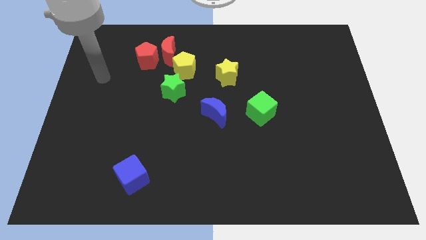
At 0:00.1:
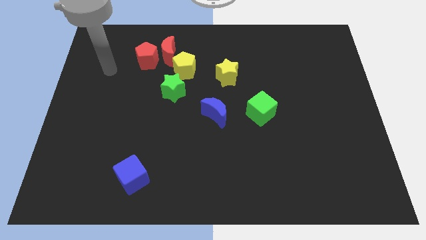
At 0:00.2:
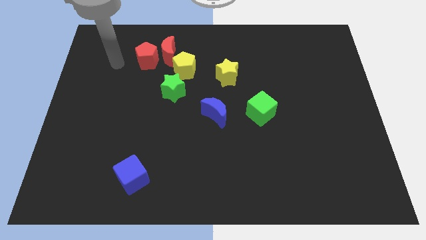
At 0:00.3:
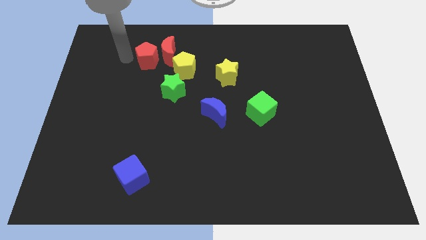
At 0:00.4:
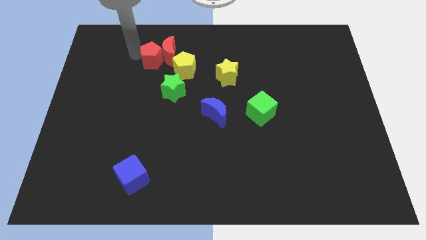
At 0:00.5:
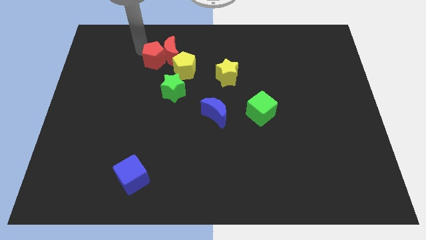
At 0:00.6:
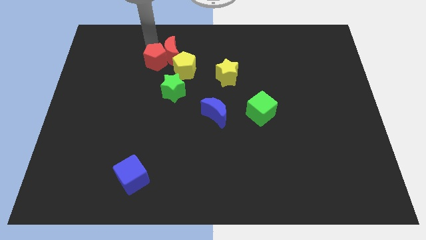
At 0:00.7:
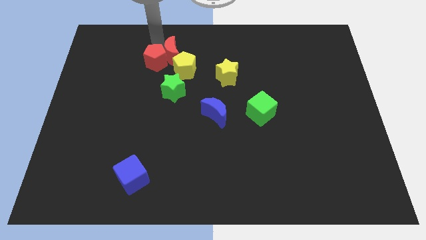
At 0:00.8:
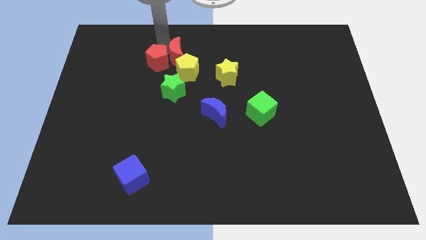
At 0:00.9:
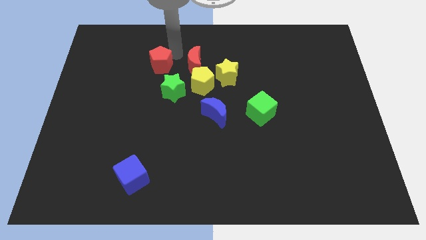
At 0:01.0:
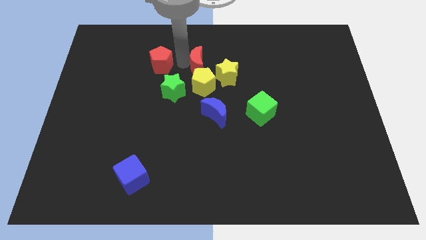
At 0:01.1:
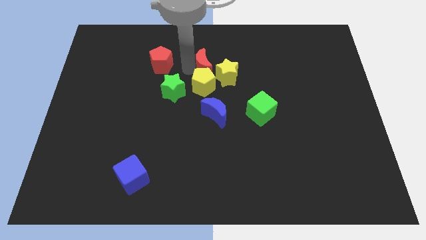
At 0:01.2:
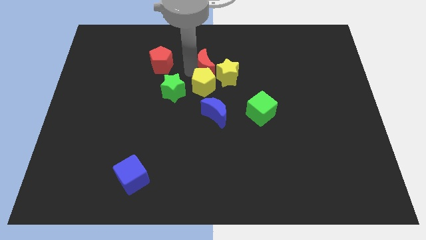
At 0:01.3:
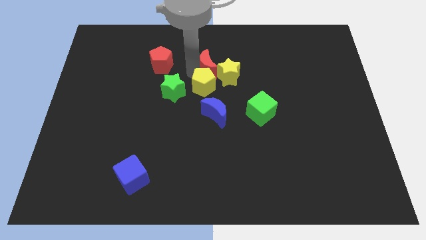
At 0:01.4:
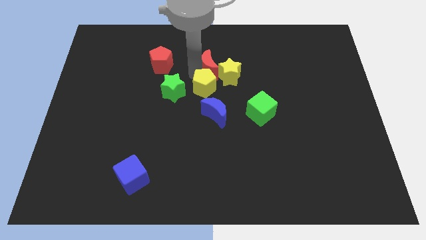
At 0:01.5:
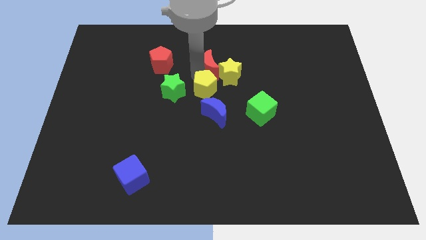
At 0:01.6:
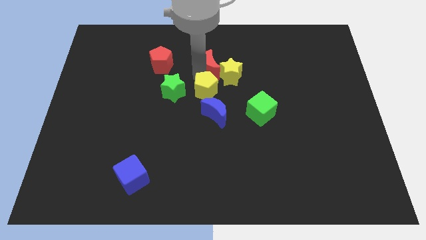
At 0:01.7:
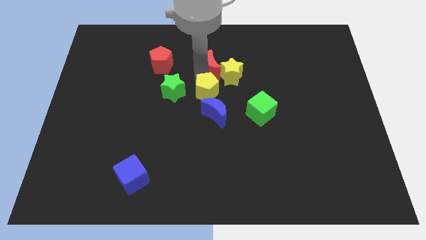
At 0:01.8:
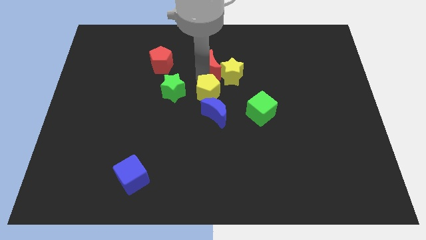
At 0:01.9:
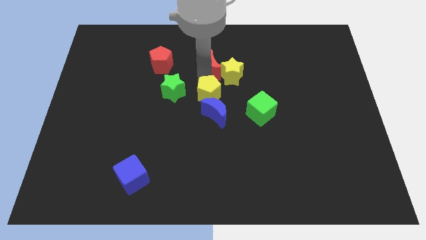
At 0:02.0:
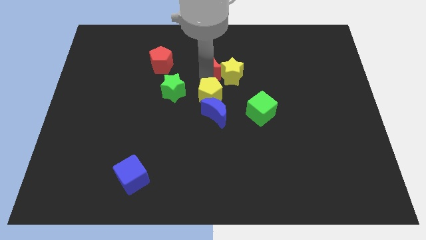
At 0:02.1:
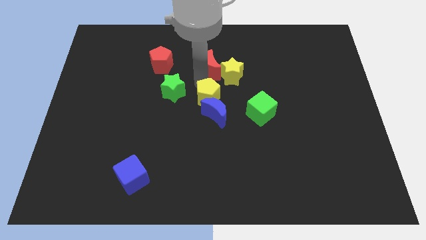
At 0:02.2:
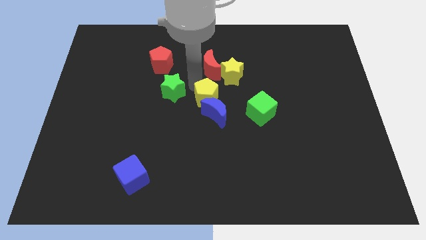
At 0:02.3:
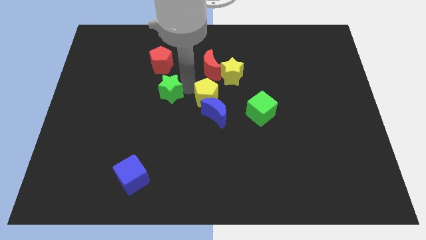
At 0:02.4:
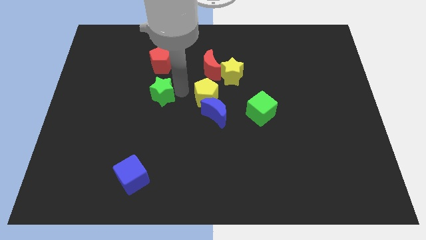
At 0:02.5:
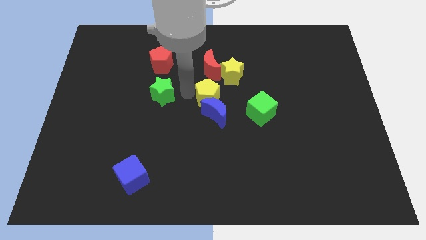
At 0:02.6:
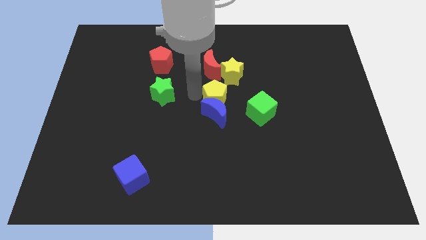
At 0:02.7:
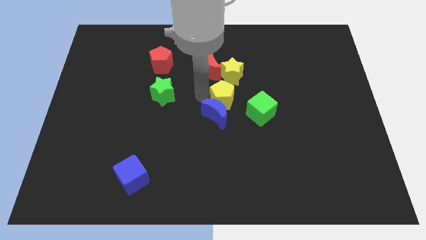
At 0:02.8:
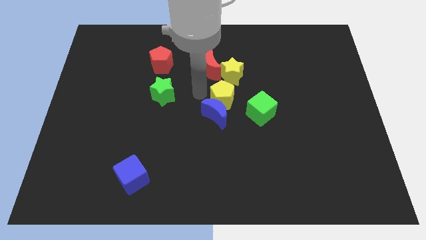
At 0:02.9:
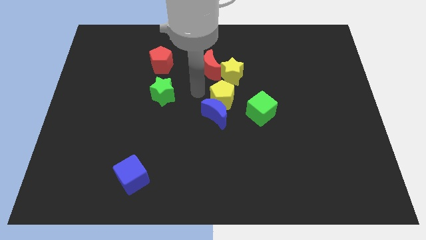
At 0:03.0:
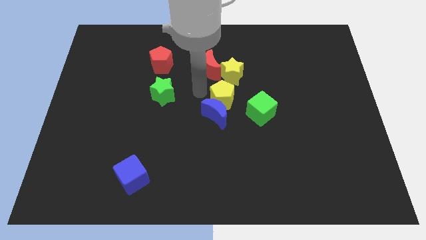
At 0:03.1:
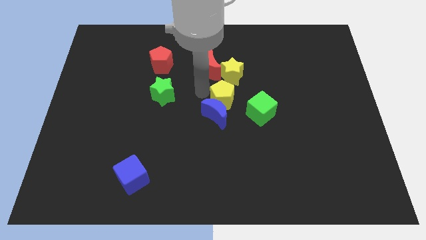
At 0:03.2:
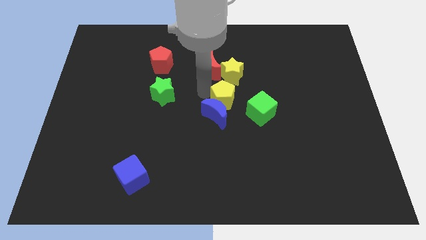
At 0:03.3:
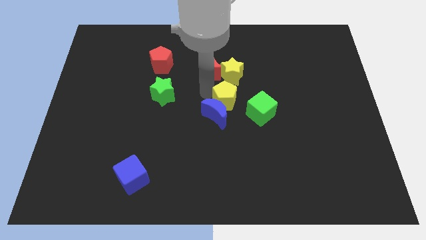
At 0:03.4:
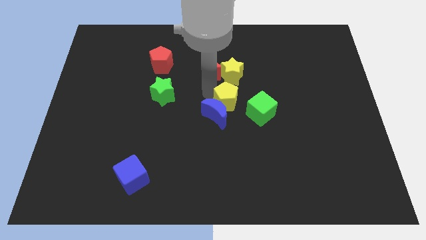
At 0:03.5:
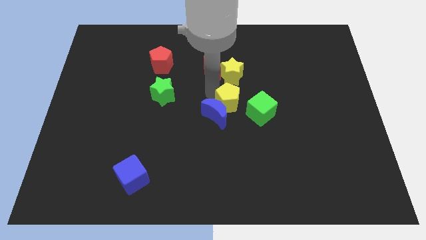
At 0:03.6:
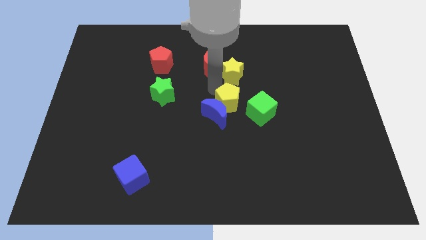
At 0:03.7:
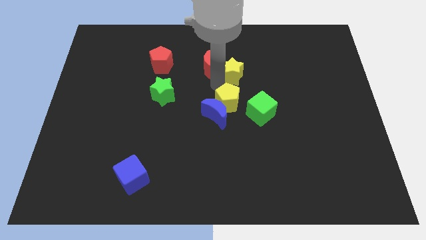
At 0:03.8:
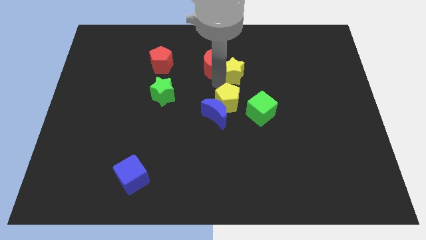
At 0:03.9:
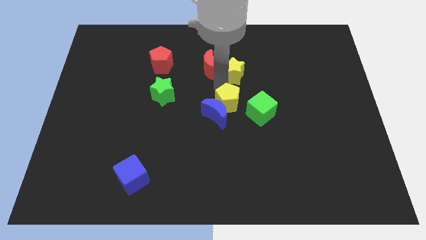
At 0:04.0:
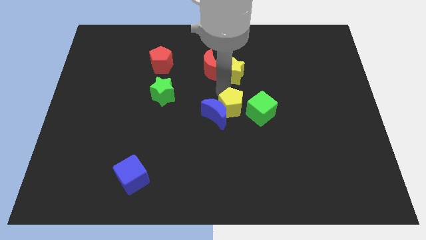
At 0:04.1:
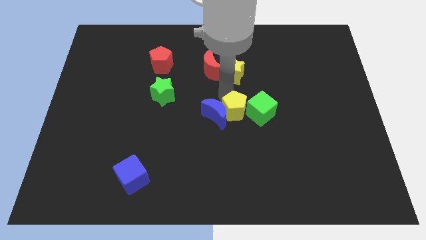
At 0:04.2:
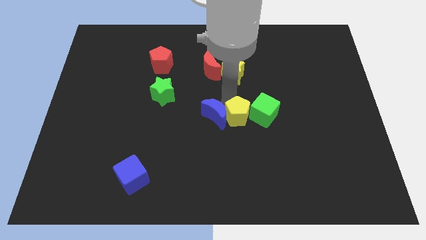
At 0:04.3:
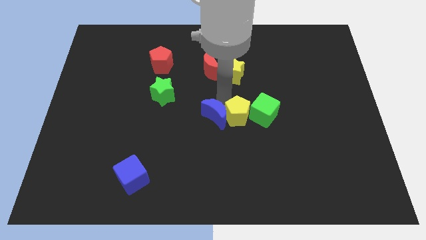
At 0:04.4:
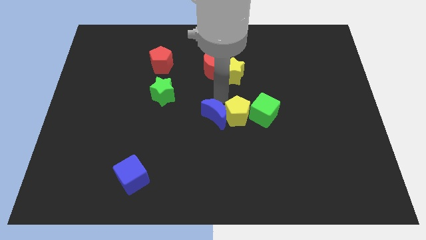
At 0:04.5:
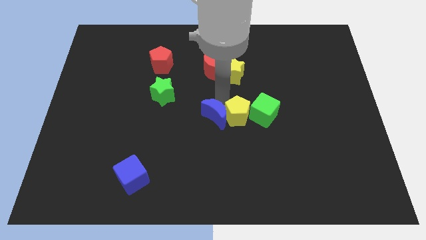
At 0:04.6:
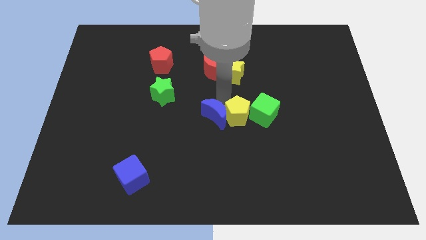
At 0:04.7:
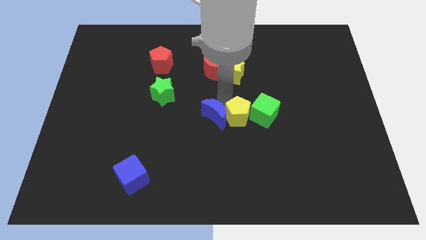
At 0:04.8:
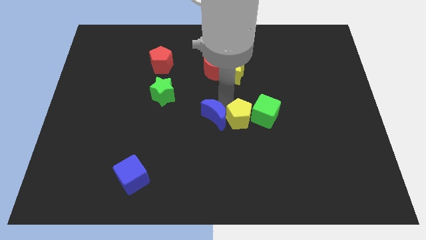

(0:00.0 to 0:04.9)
move the yellow pentagon diagonally down and to the right

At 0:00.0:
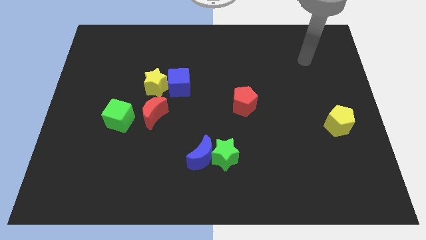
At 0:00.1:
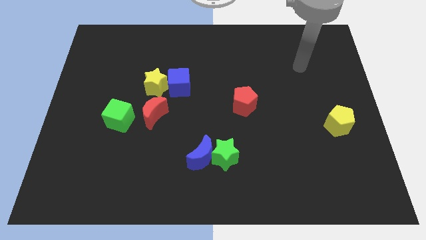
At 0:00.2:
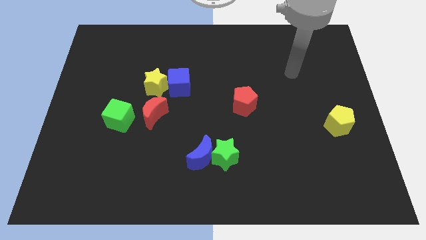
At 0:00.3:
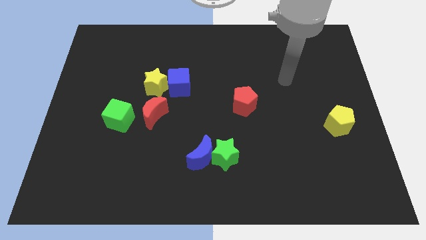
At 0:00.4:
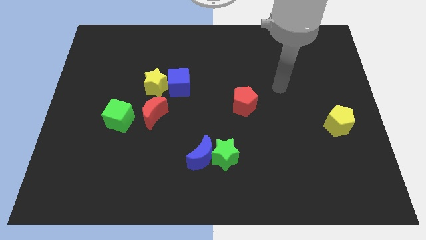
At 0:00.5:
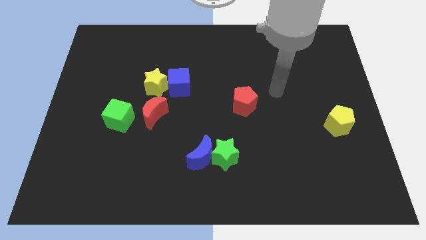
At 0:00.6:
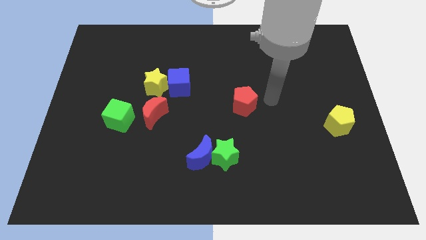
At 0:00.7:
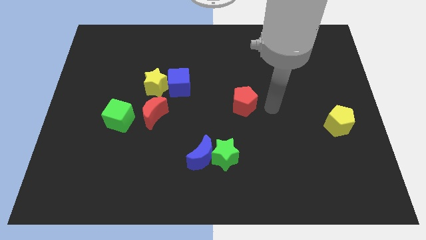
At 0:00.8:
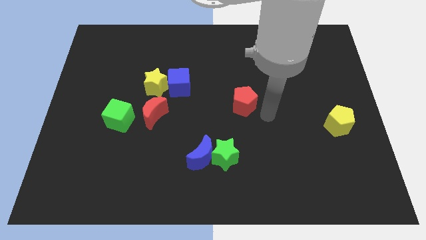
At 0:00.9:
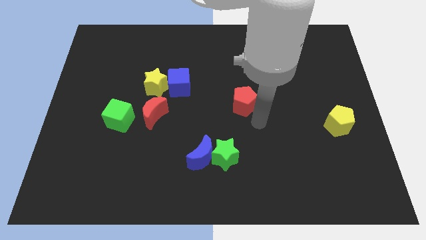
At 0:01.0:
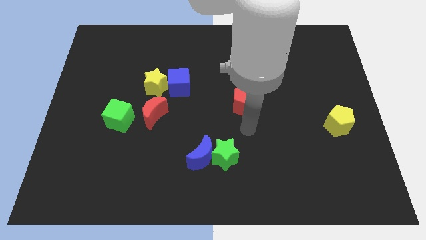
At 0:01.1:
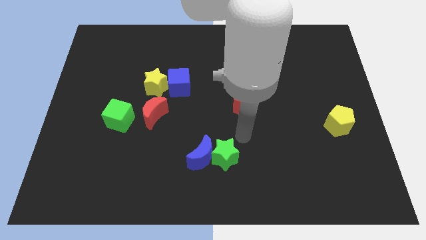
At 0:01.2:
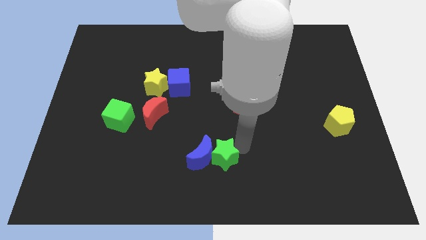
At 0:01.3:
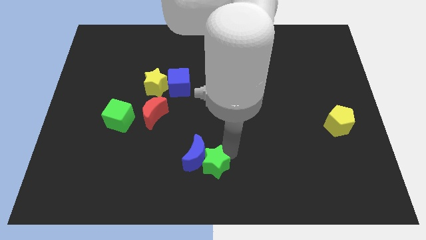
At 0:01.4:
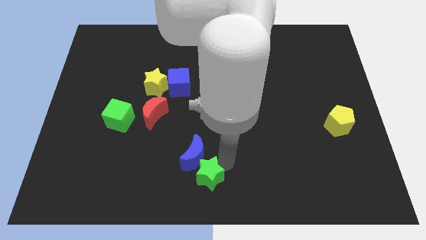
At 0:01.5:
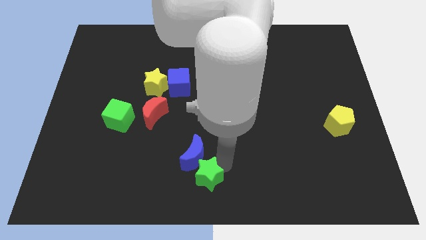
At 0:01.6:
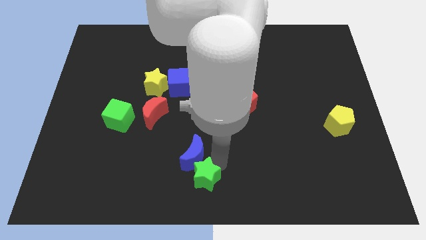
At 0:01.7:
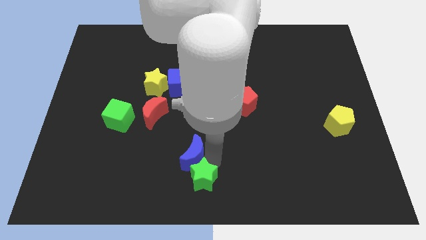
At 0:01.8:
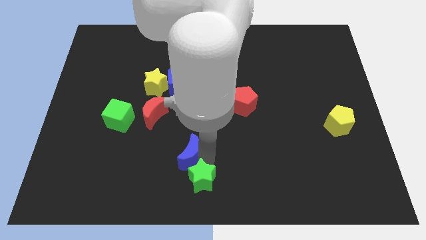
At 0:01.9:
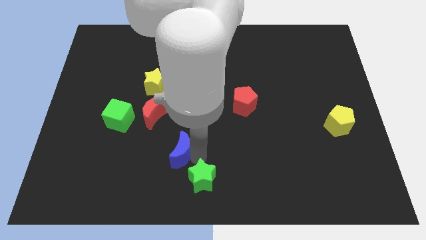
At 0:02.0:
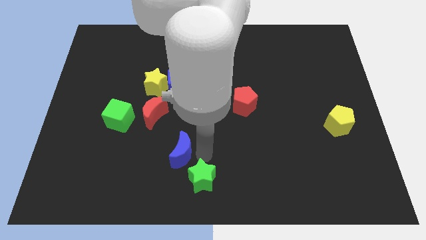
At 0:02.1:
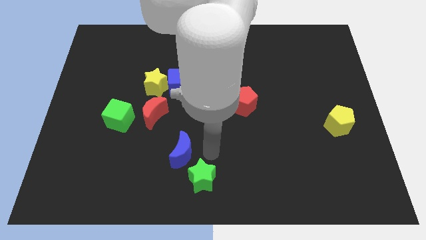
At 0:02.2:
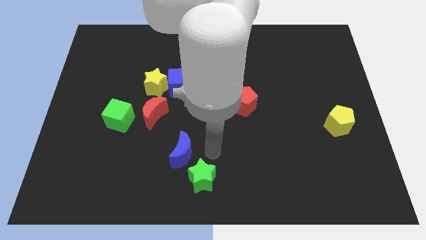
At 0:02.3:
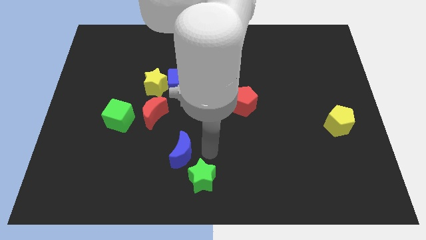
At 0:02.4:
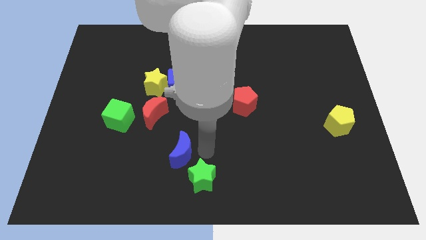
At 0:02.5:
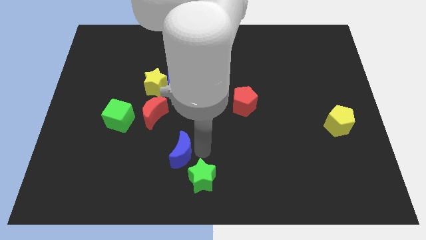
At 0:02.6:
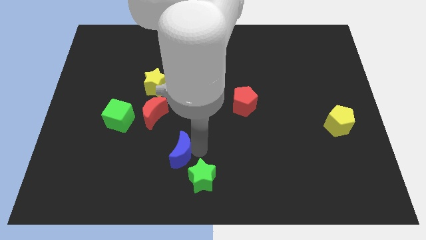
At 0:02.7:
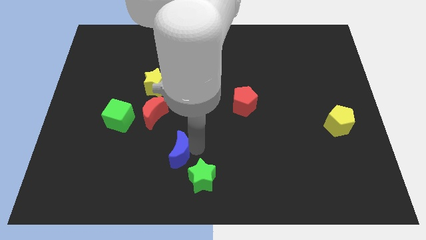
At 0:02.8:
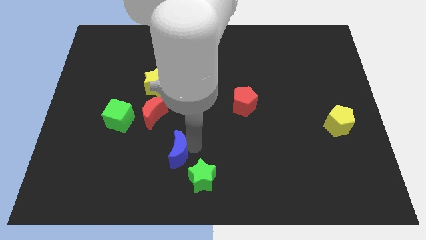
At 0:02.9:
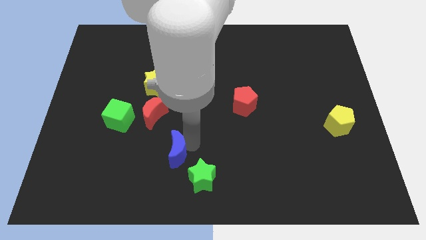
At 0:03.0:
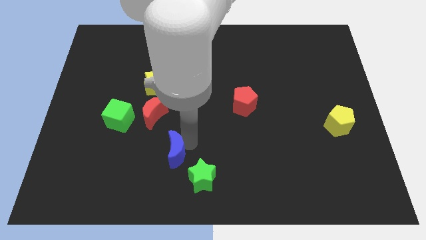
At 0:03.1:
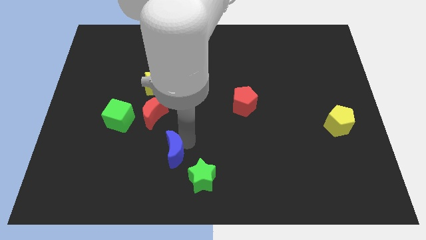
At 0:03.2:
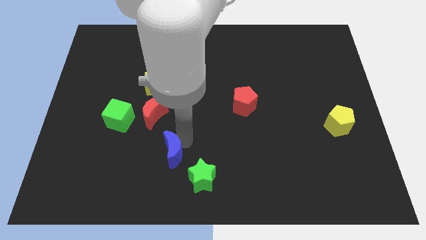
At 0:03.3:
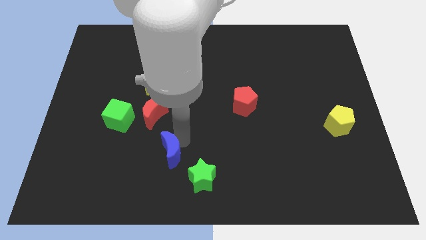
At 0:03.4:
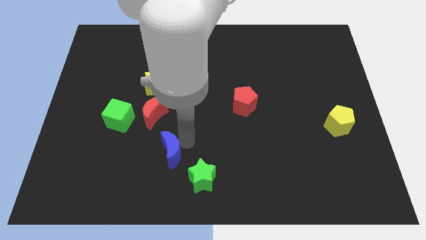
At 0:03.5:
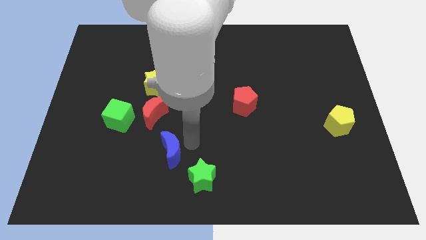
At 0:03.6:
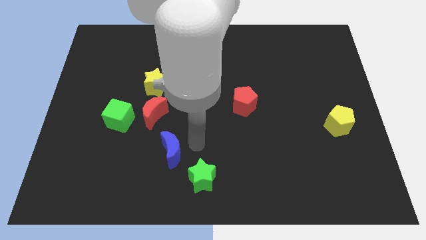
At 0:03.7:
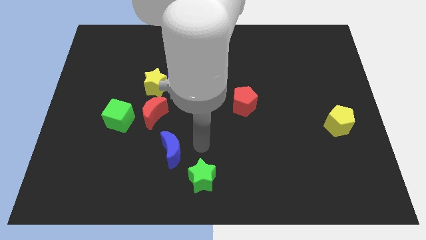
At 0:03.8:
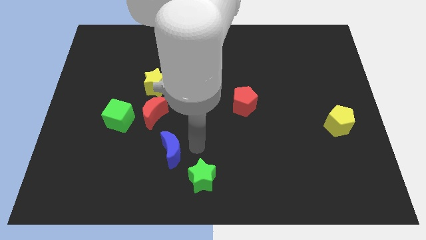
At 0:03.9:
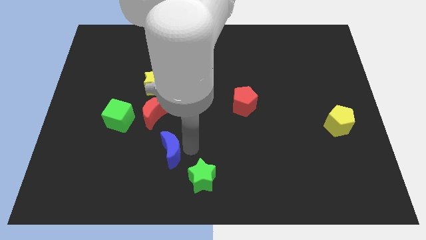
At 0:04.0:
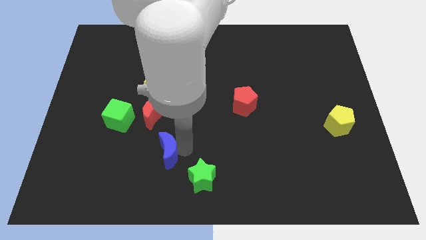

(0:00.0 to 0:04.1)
push the blue moon a little bit to the left
